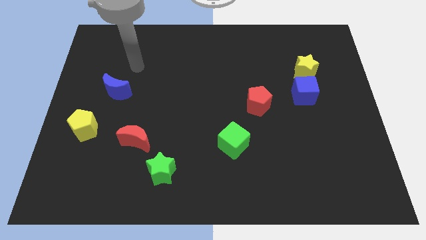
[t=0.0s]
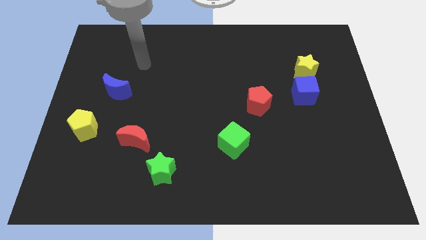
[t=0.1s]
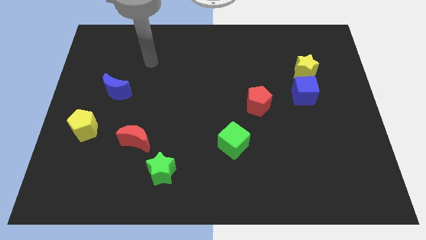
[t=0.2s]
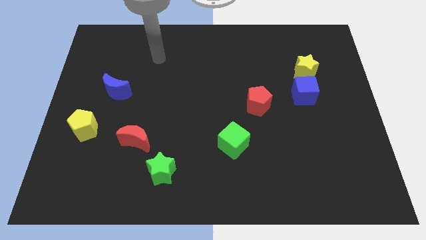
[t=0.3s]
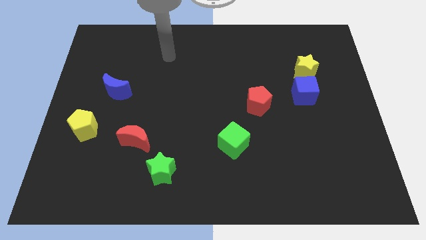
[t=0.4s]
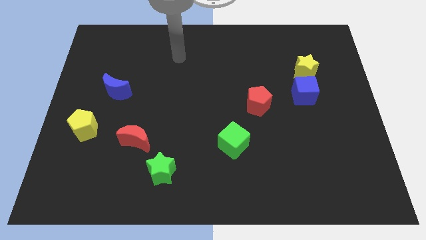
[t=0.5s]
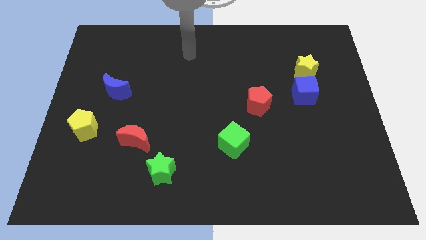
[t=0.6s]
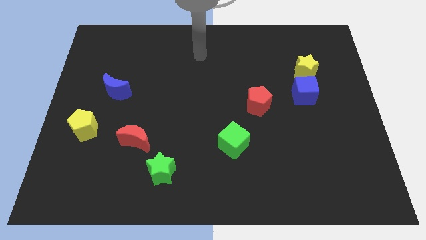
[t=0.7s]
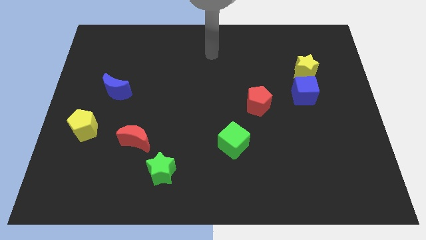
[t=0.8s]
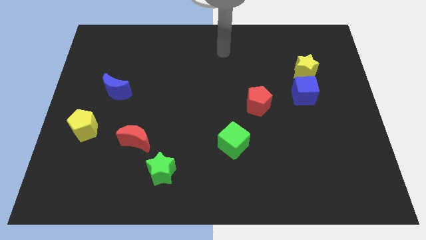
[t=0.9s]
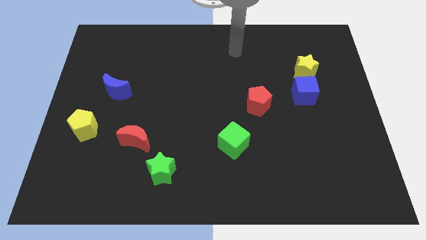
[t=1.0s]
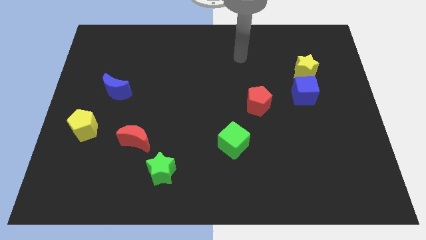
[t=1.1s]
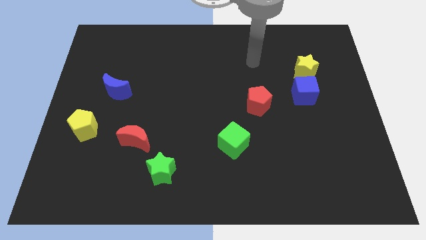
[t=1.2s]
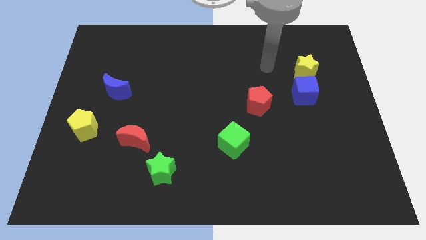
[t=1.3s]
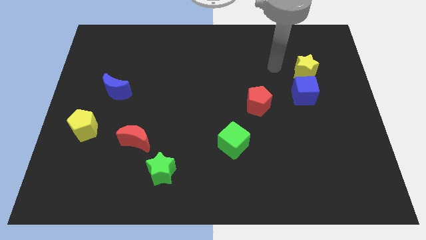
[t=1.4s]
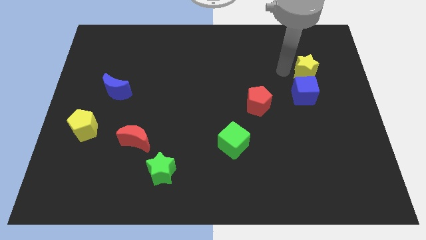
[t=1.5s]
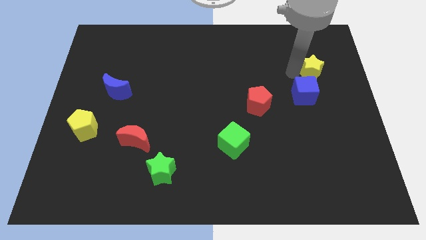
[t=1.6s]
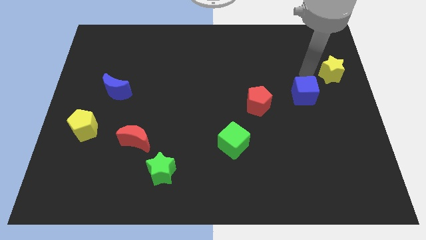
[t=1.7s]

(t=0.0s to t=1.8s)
move the blue cube away from the yellow star

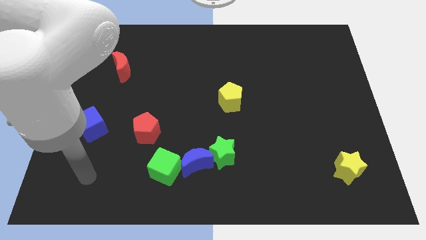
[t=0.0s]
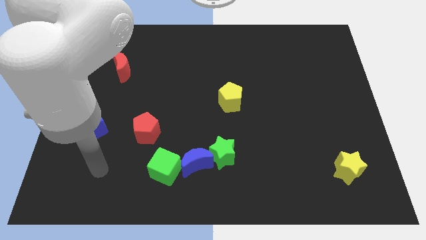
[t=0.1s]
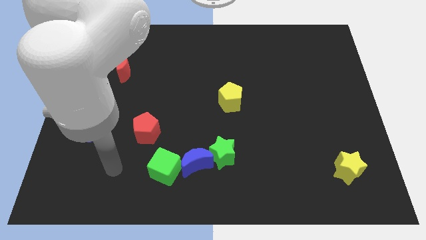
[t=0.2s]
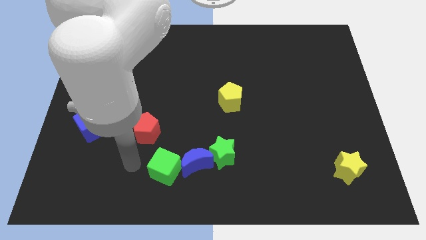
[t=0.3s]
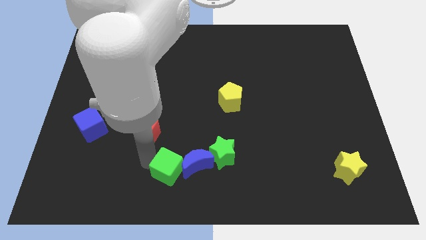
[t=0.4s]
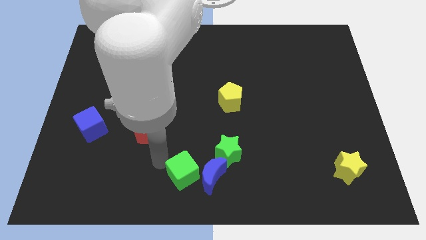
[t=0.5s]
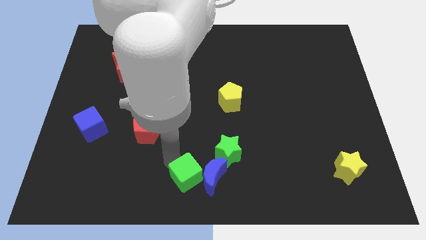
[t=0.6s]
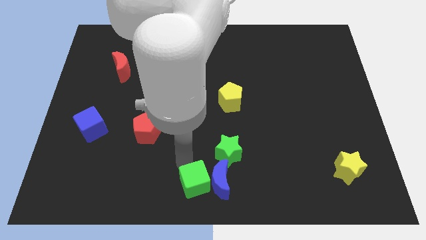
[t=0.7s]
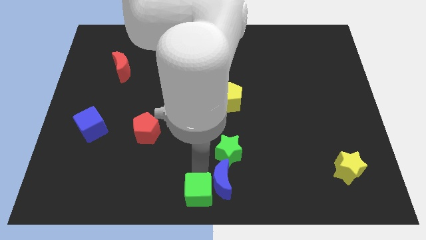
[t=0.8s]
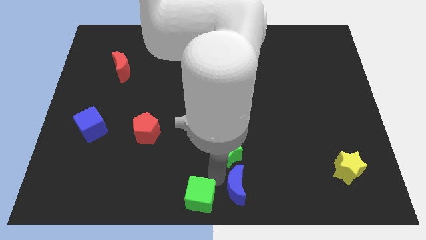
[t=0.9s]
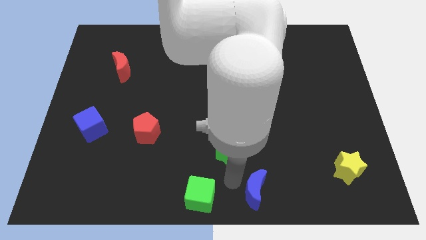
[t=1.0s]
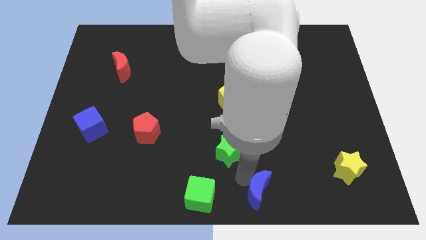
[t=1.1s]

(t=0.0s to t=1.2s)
separate the green star from the blue moon

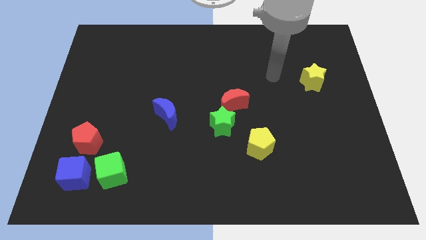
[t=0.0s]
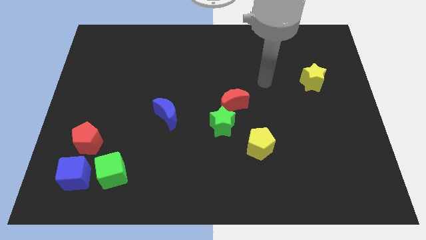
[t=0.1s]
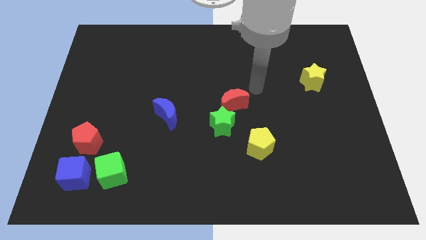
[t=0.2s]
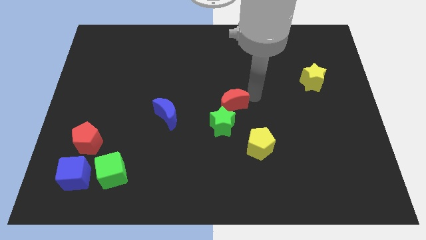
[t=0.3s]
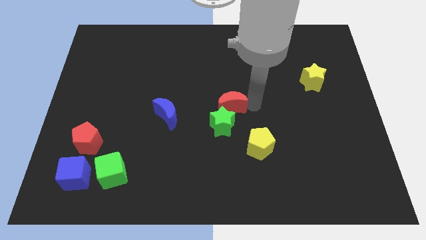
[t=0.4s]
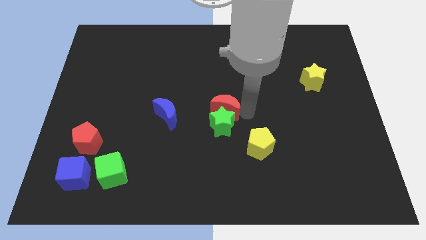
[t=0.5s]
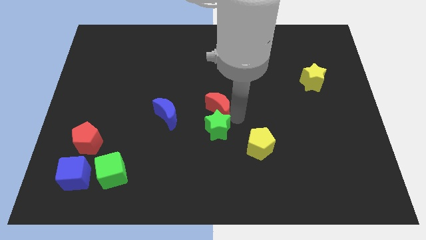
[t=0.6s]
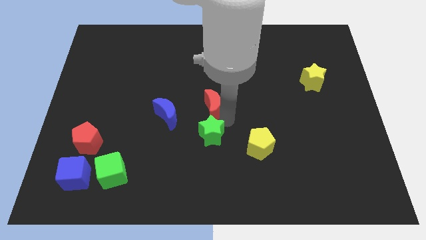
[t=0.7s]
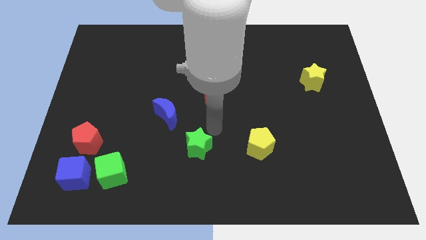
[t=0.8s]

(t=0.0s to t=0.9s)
separate the red moon from the green star

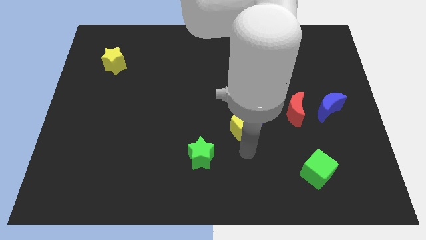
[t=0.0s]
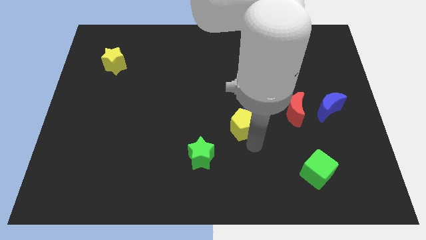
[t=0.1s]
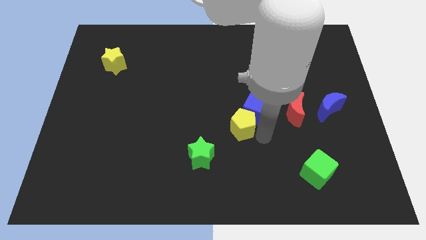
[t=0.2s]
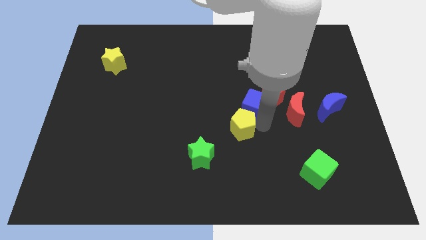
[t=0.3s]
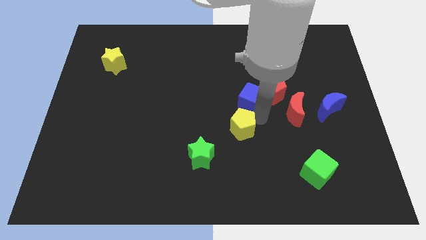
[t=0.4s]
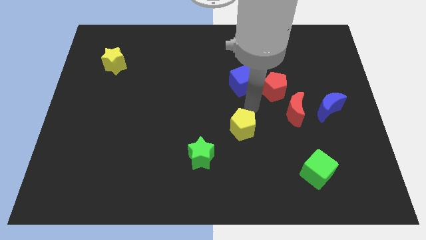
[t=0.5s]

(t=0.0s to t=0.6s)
pull the yellow pentagon apart from the blue cube

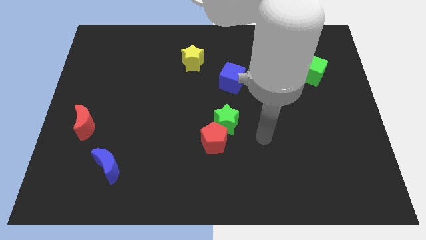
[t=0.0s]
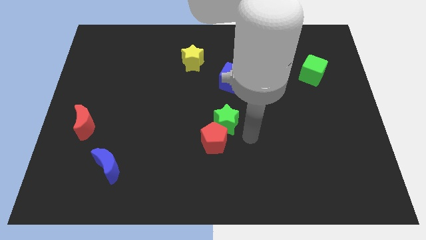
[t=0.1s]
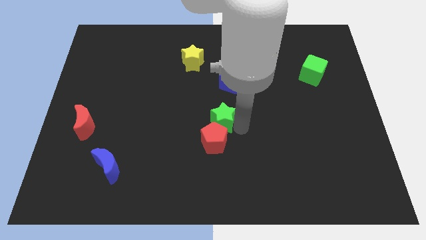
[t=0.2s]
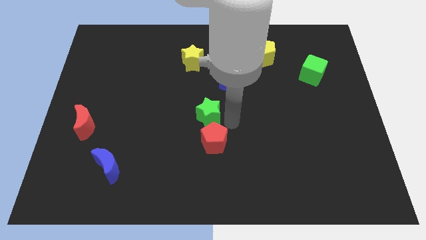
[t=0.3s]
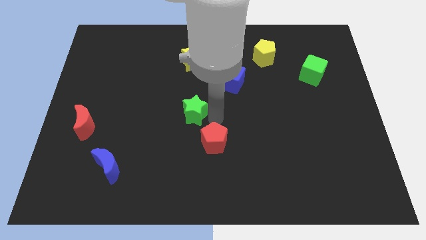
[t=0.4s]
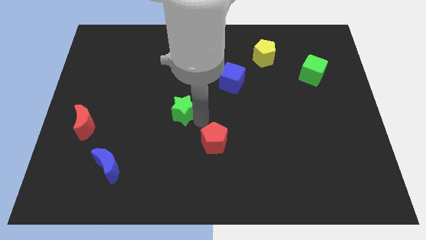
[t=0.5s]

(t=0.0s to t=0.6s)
move the red pentagon away from the green star

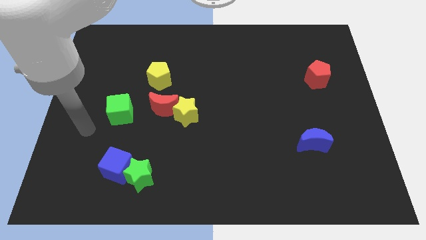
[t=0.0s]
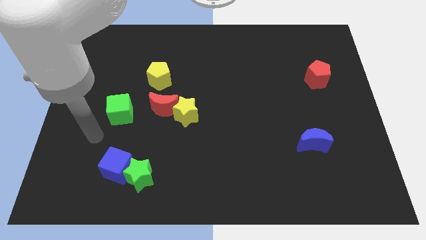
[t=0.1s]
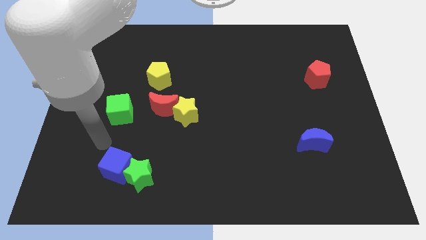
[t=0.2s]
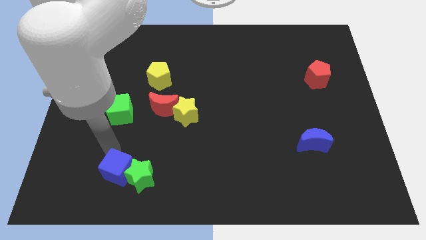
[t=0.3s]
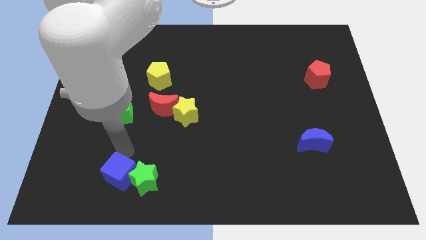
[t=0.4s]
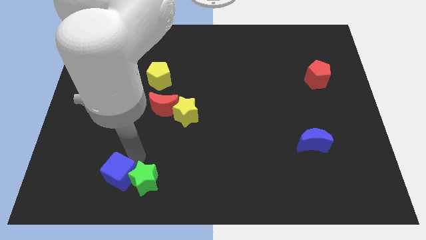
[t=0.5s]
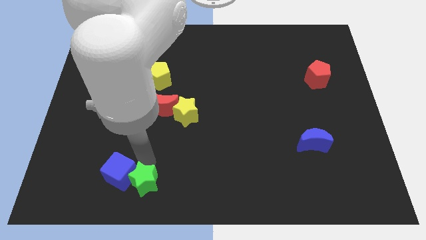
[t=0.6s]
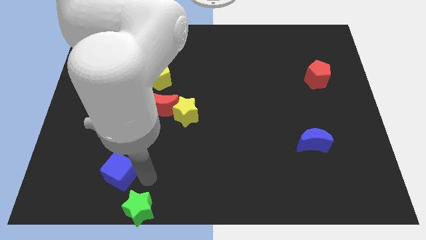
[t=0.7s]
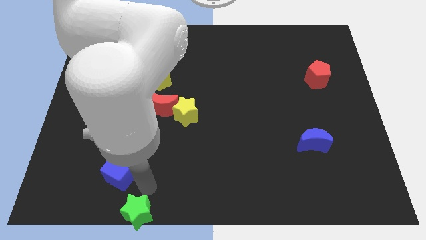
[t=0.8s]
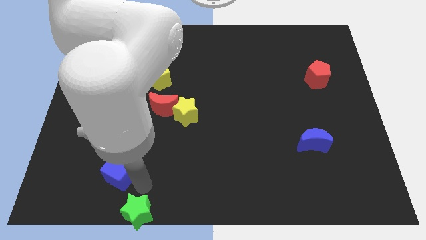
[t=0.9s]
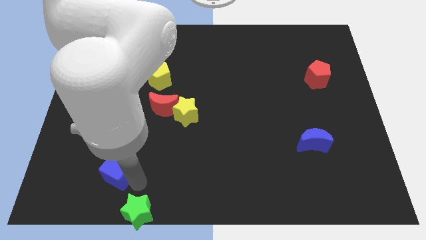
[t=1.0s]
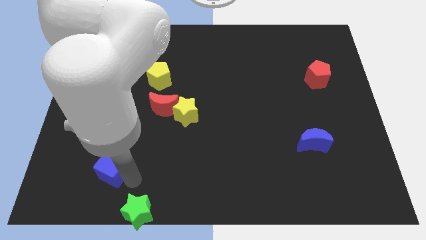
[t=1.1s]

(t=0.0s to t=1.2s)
move the blue cube away from the green star

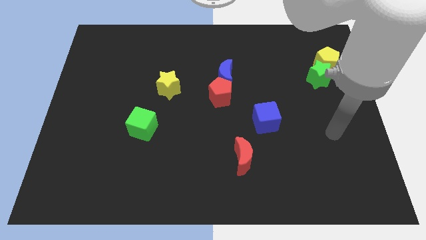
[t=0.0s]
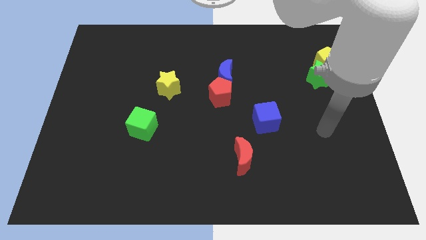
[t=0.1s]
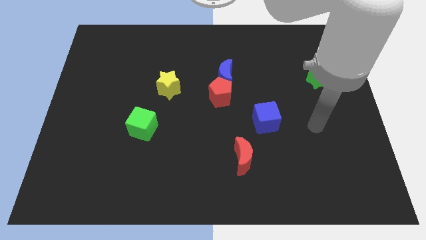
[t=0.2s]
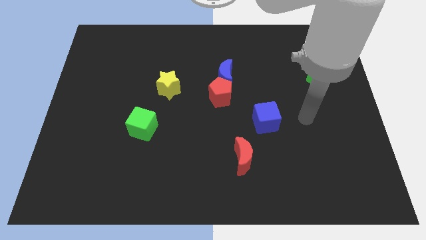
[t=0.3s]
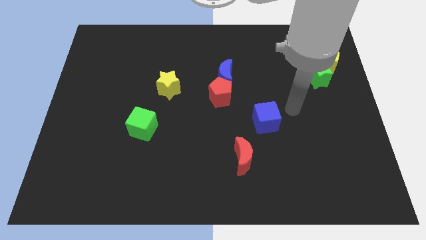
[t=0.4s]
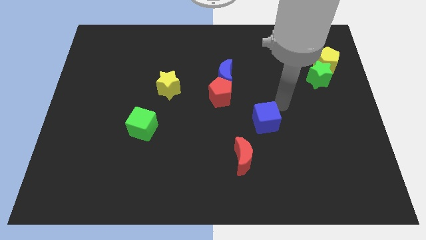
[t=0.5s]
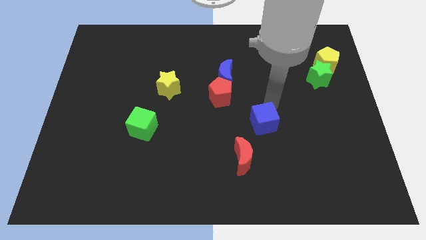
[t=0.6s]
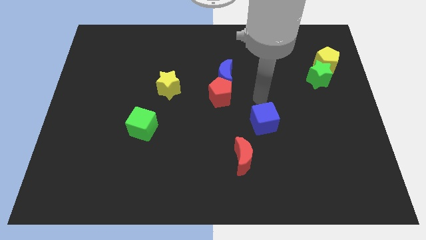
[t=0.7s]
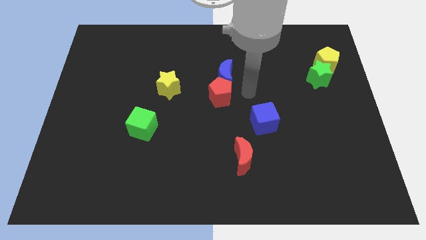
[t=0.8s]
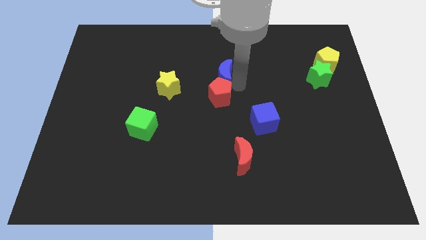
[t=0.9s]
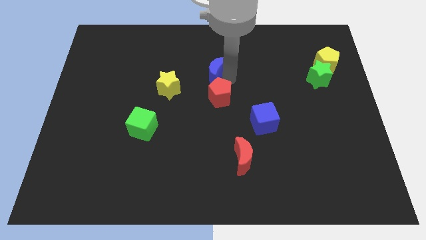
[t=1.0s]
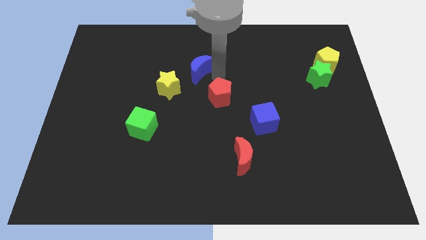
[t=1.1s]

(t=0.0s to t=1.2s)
pull the red pentagon apart from the blue moon

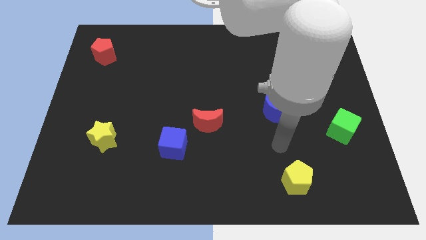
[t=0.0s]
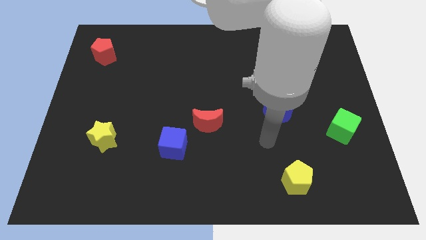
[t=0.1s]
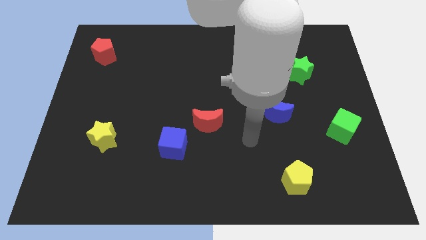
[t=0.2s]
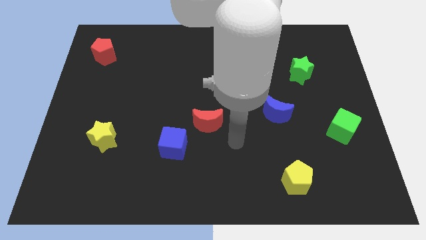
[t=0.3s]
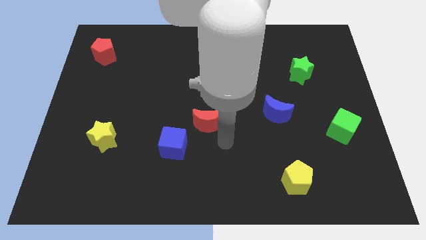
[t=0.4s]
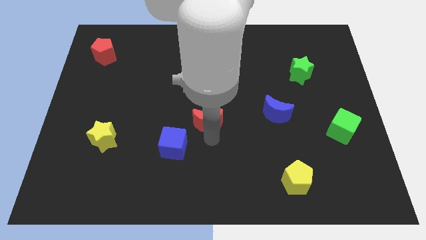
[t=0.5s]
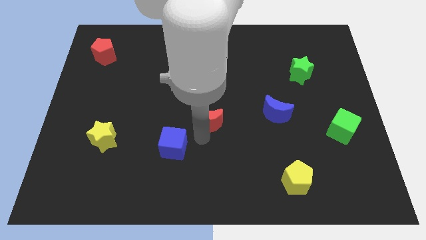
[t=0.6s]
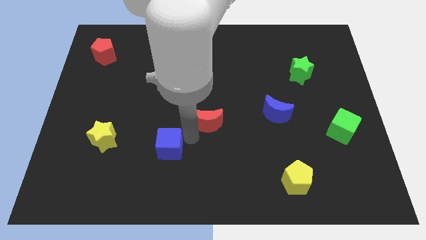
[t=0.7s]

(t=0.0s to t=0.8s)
move the red moon away from the blue cube

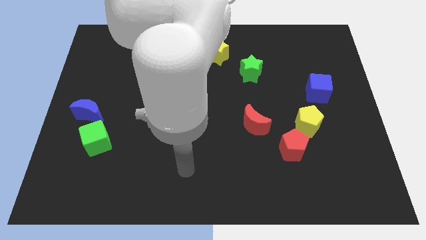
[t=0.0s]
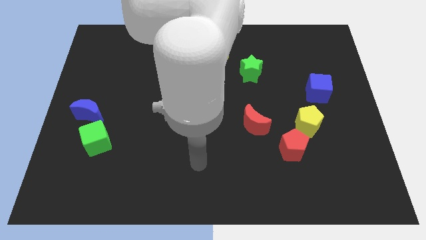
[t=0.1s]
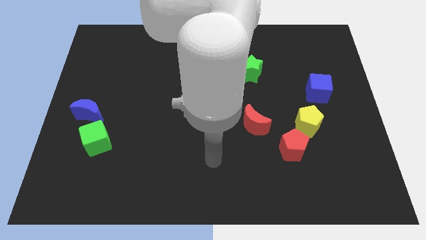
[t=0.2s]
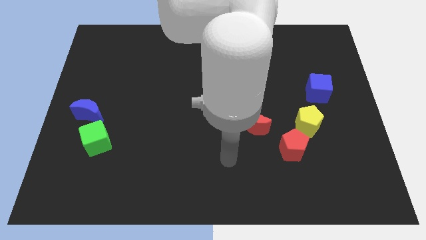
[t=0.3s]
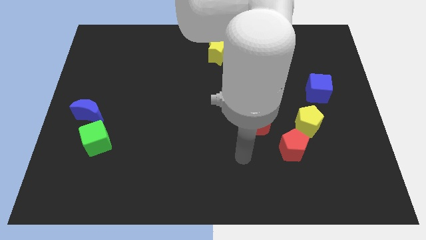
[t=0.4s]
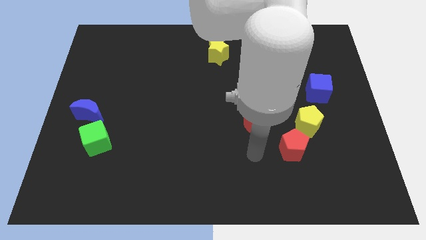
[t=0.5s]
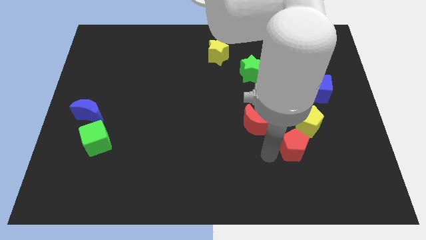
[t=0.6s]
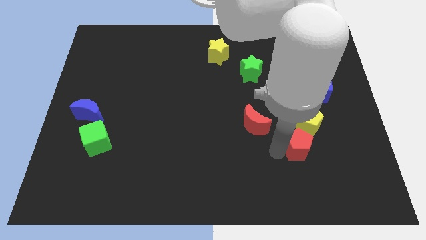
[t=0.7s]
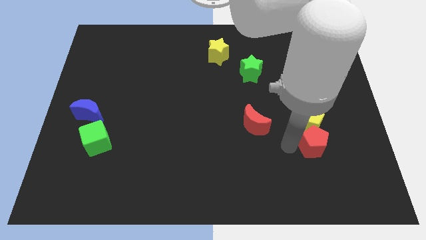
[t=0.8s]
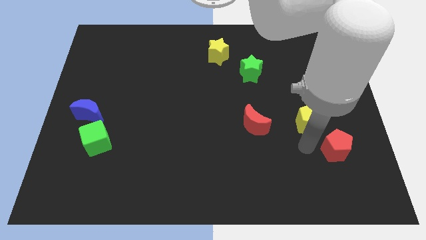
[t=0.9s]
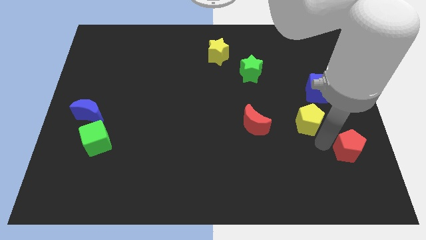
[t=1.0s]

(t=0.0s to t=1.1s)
separate the yellow pentagon from the red pentagon

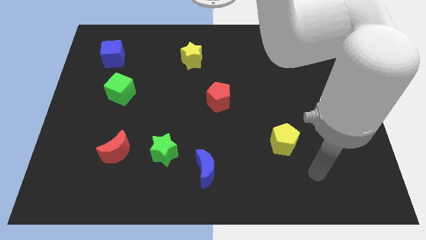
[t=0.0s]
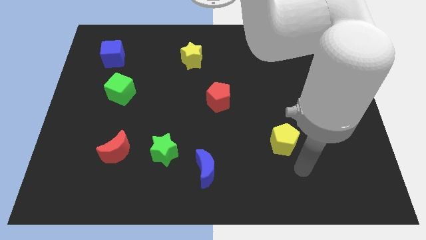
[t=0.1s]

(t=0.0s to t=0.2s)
pull the red moon apart from the green star
